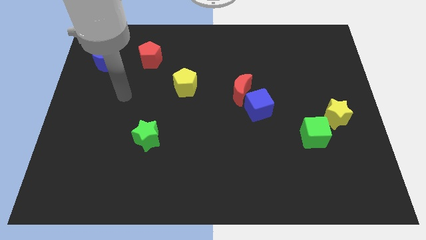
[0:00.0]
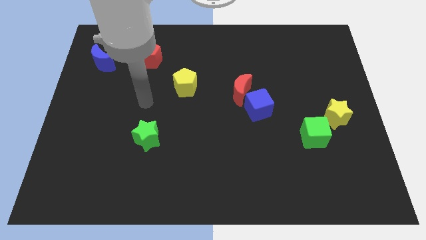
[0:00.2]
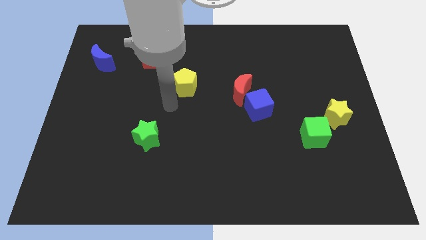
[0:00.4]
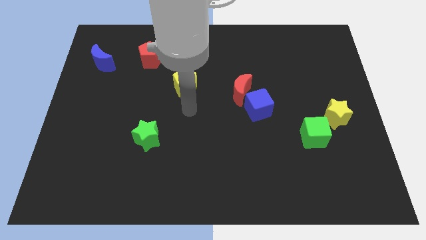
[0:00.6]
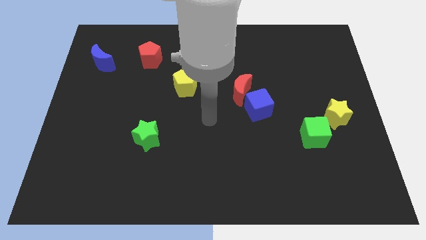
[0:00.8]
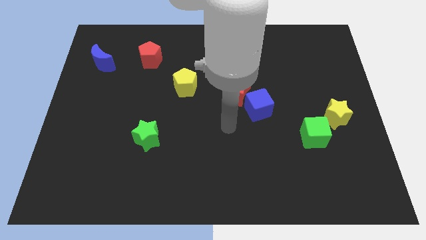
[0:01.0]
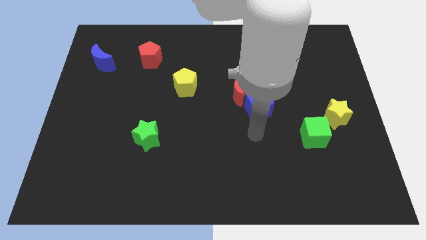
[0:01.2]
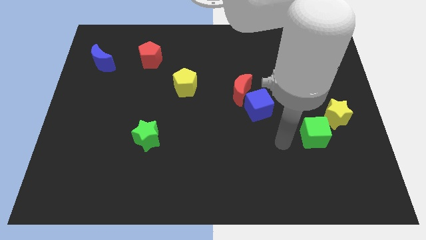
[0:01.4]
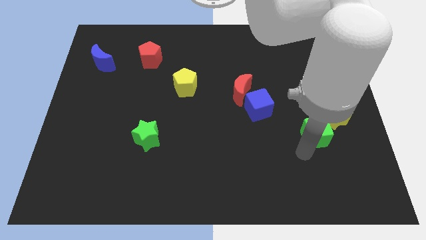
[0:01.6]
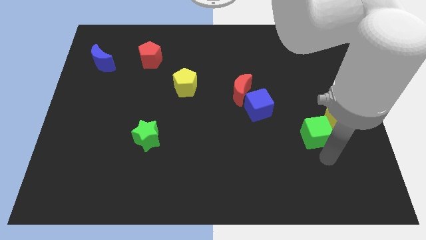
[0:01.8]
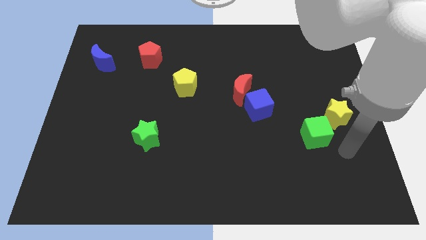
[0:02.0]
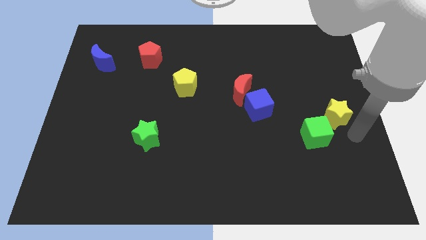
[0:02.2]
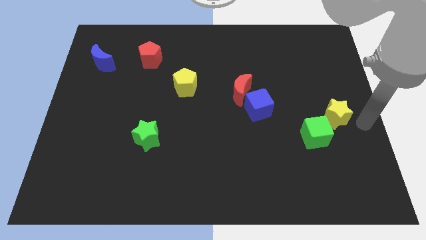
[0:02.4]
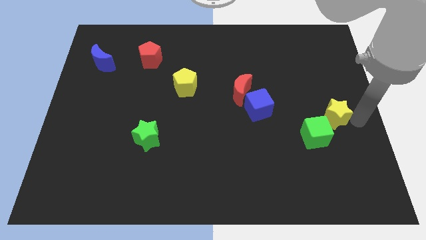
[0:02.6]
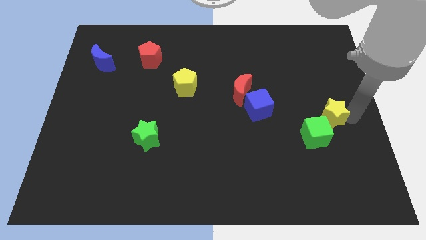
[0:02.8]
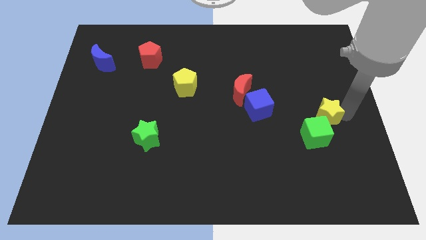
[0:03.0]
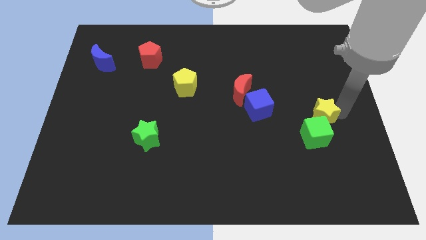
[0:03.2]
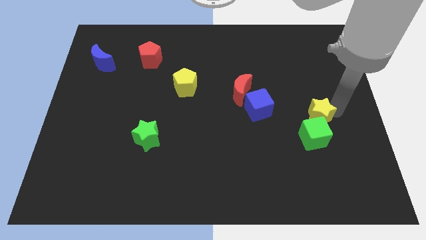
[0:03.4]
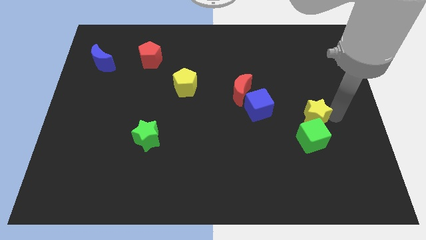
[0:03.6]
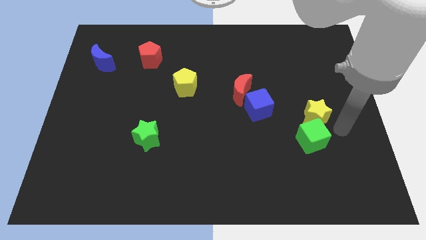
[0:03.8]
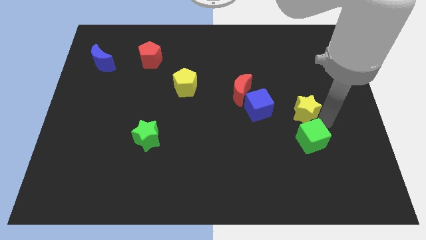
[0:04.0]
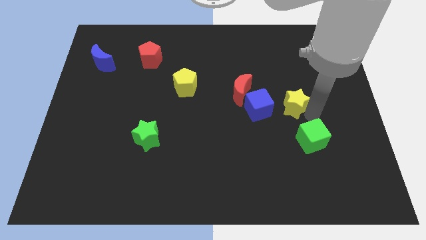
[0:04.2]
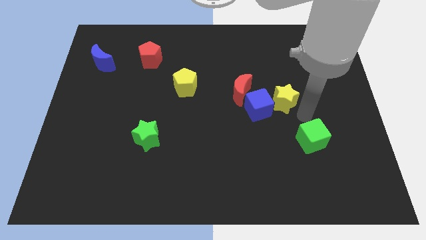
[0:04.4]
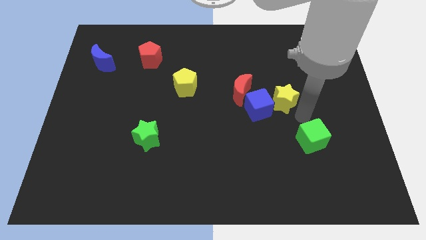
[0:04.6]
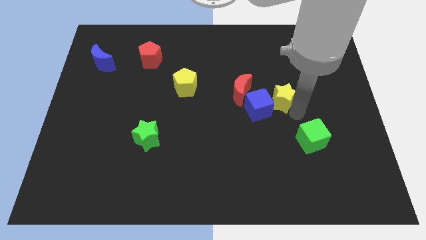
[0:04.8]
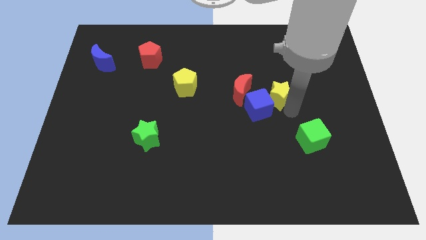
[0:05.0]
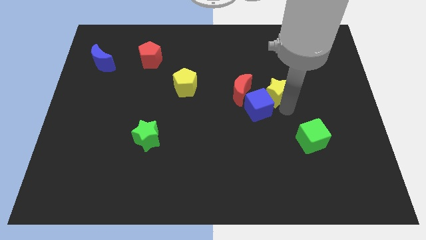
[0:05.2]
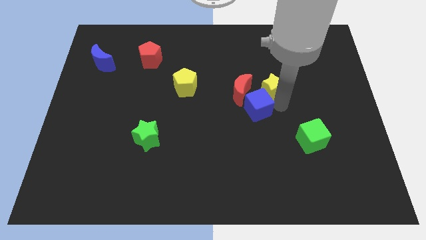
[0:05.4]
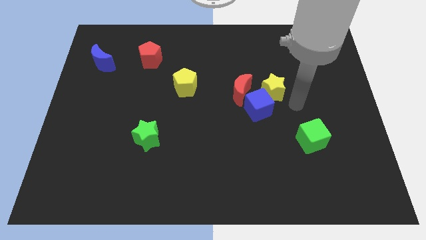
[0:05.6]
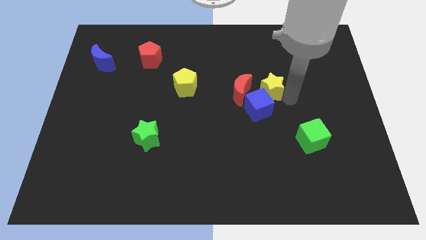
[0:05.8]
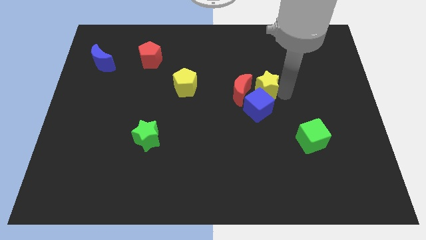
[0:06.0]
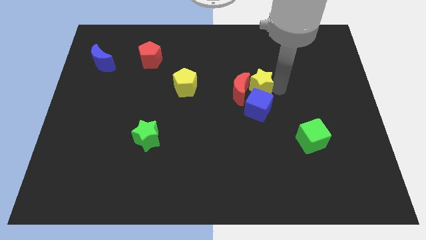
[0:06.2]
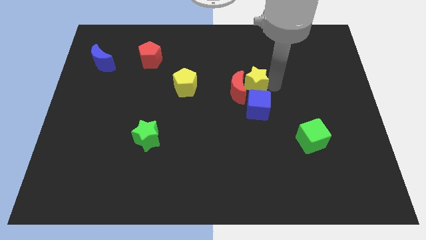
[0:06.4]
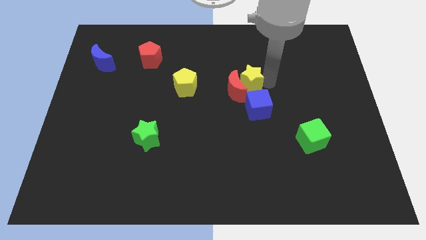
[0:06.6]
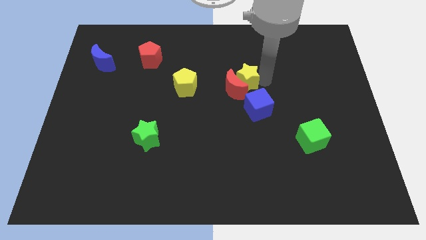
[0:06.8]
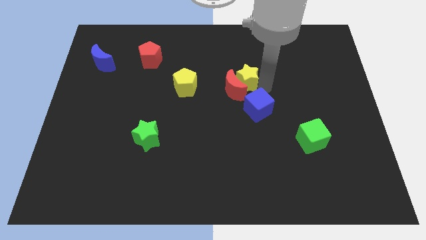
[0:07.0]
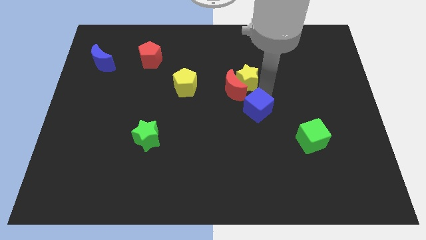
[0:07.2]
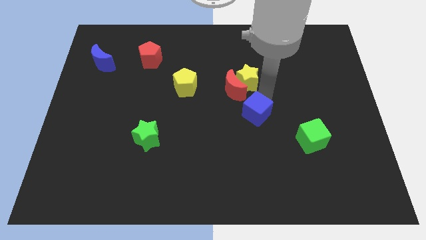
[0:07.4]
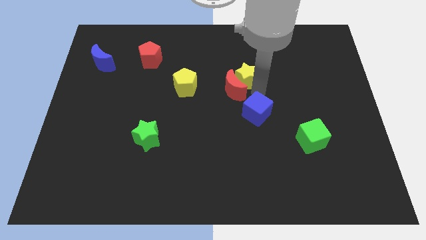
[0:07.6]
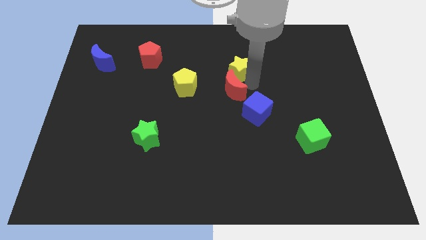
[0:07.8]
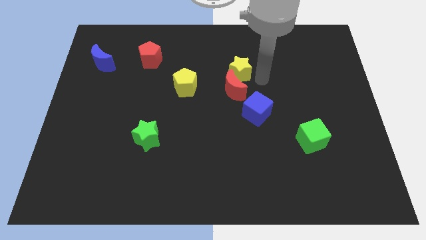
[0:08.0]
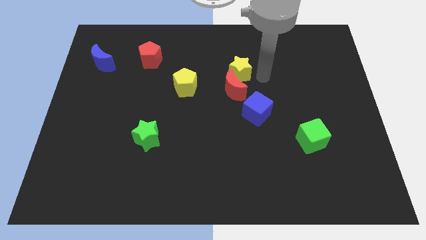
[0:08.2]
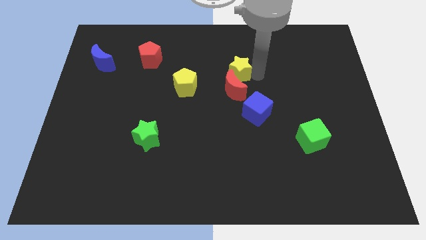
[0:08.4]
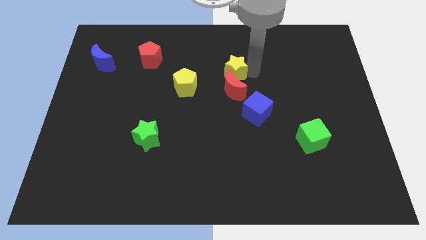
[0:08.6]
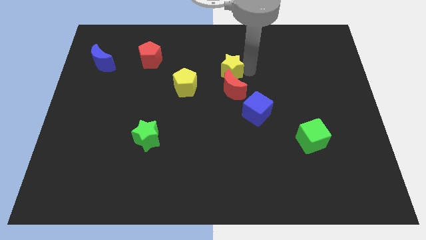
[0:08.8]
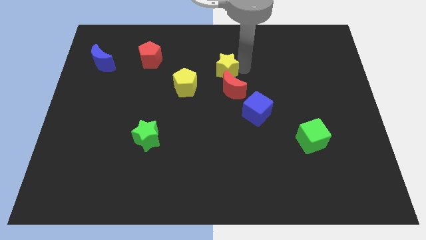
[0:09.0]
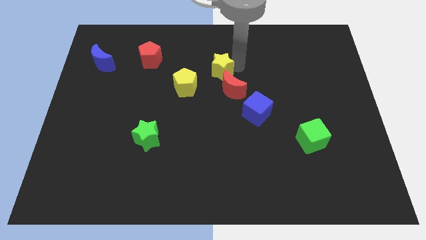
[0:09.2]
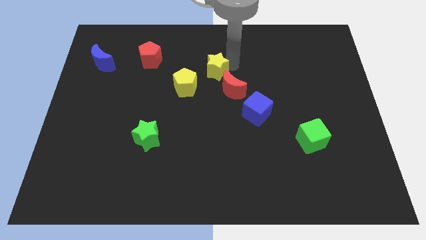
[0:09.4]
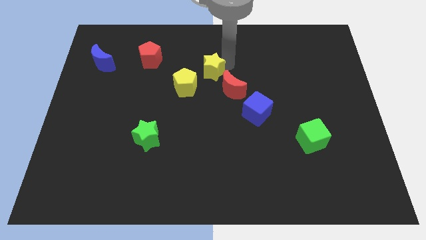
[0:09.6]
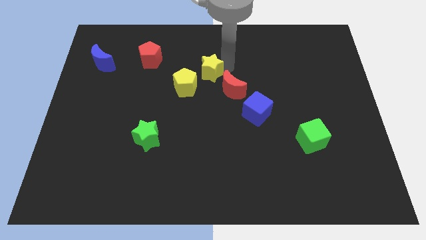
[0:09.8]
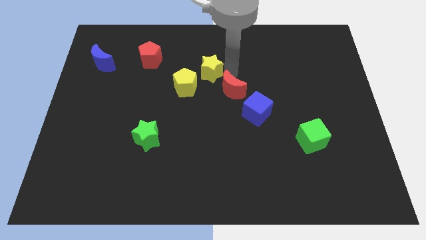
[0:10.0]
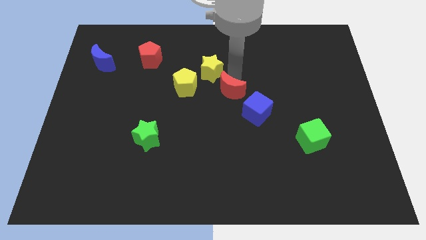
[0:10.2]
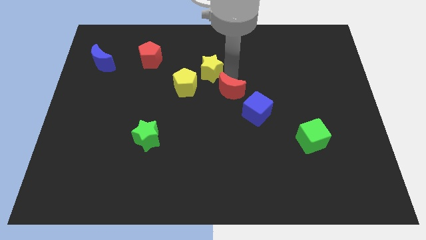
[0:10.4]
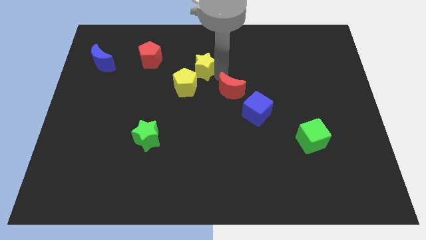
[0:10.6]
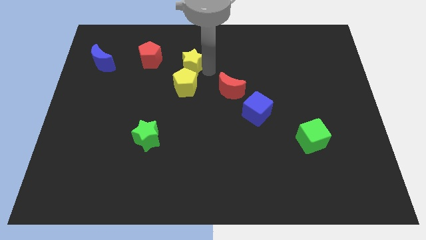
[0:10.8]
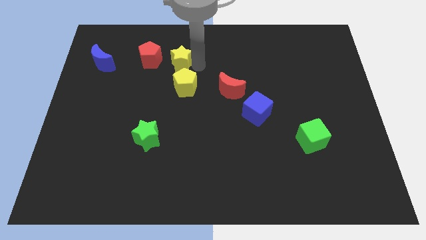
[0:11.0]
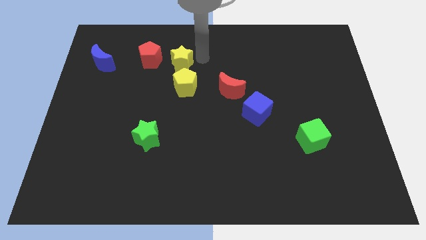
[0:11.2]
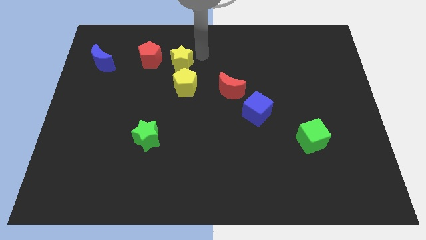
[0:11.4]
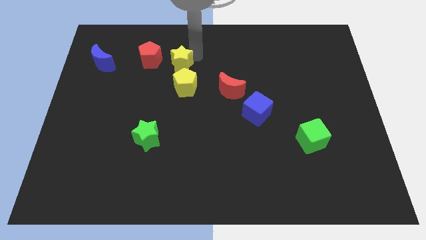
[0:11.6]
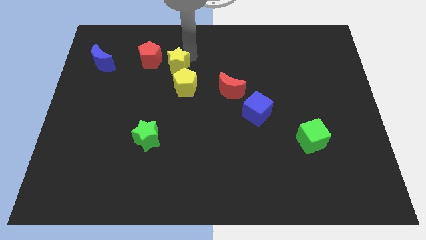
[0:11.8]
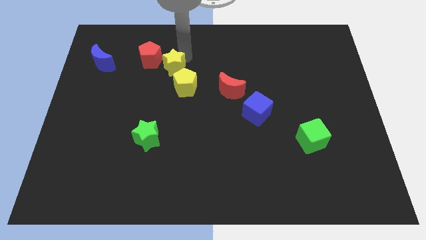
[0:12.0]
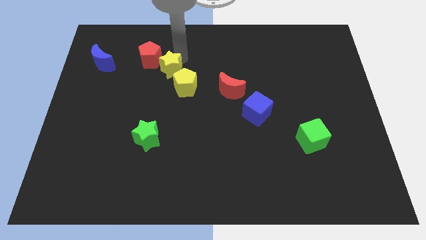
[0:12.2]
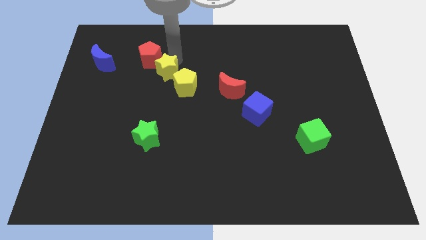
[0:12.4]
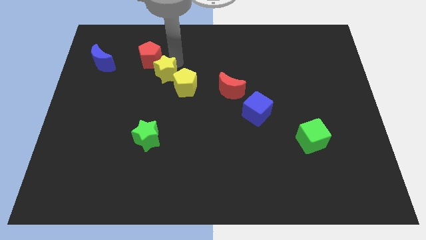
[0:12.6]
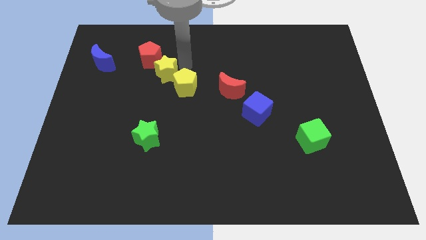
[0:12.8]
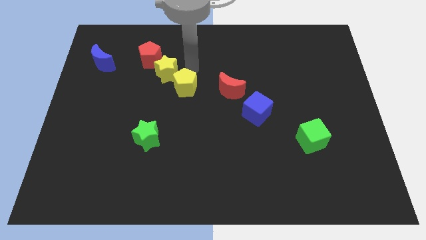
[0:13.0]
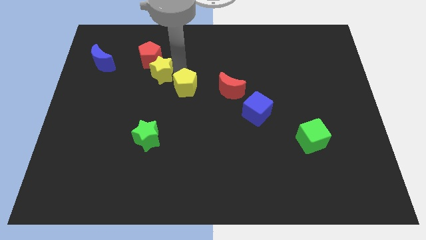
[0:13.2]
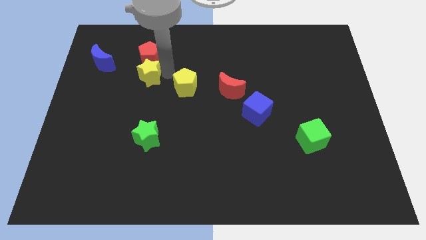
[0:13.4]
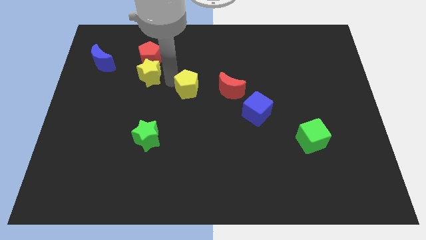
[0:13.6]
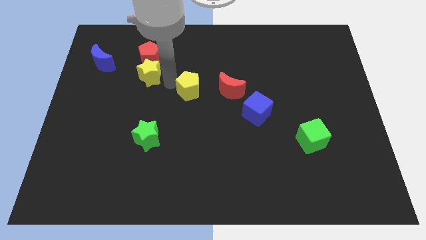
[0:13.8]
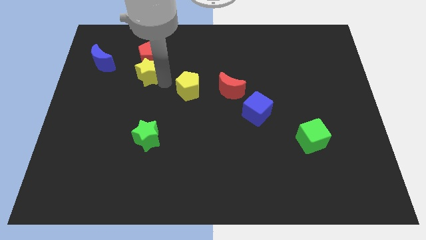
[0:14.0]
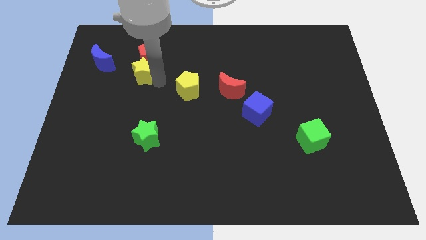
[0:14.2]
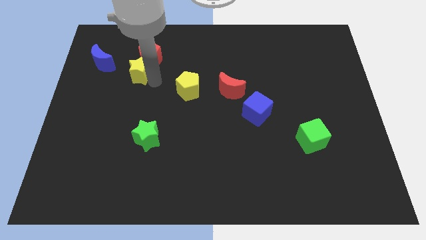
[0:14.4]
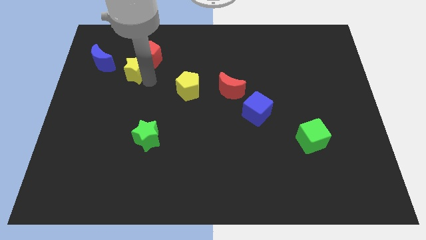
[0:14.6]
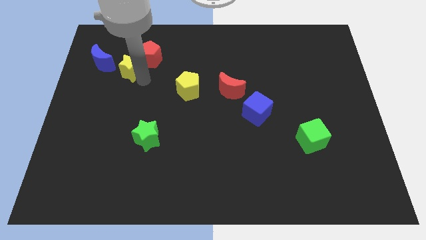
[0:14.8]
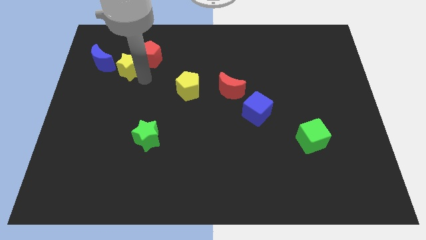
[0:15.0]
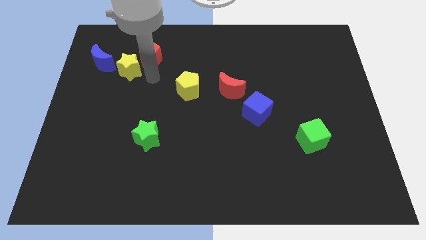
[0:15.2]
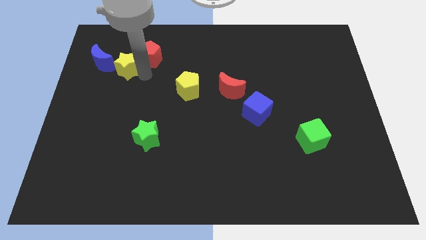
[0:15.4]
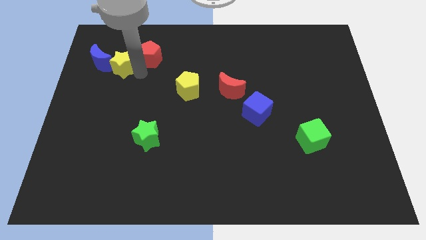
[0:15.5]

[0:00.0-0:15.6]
push the yellow star towards the blue moon
